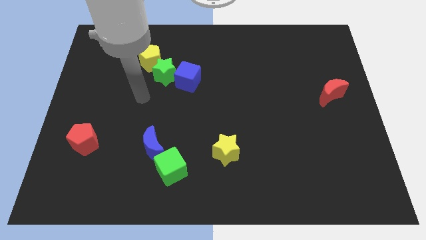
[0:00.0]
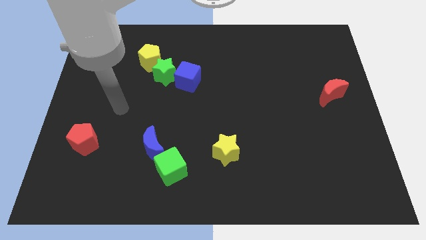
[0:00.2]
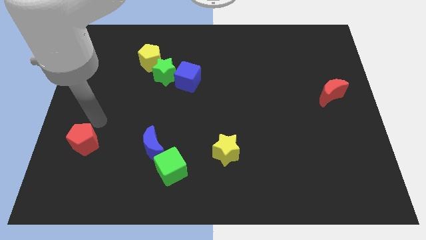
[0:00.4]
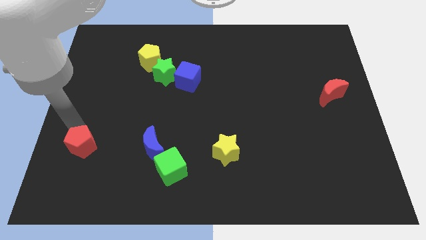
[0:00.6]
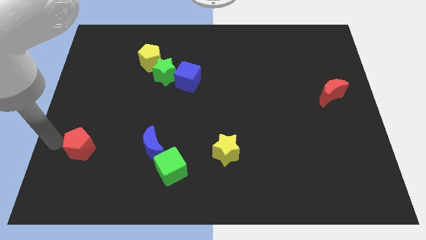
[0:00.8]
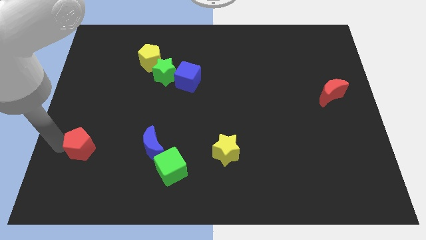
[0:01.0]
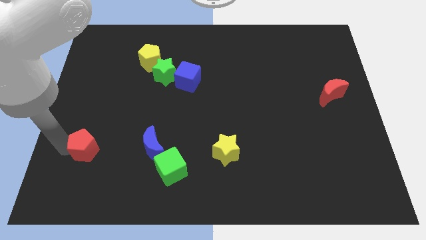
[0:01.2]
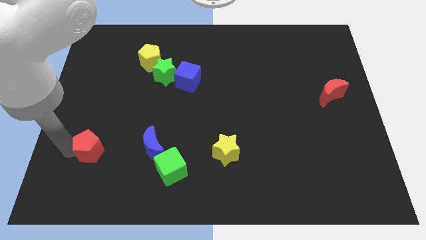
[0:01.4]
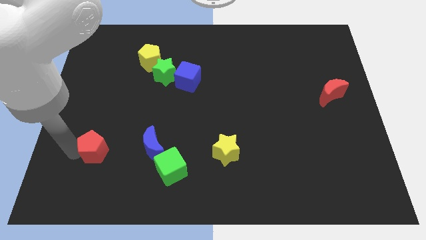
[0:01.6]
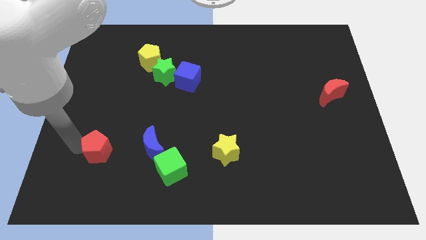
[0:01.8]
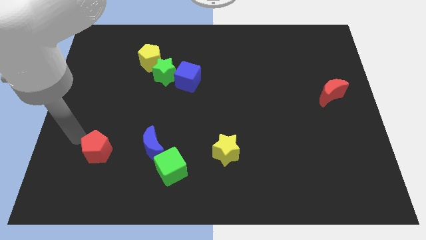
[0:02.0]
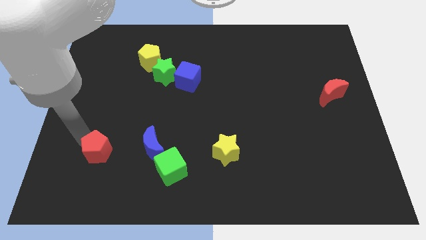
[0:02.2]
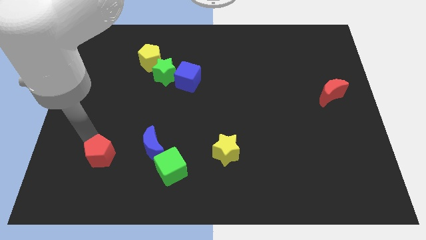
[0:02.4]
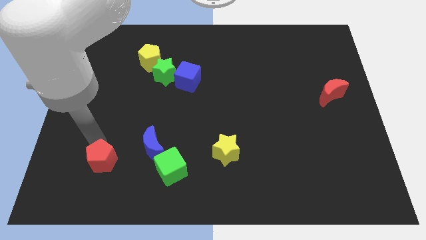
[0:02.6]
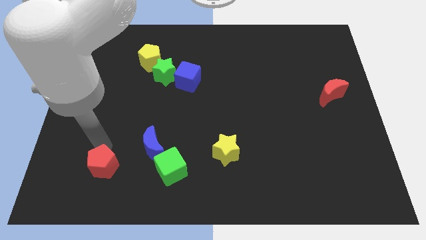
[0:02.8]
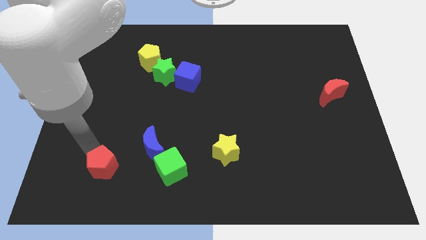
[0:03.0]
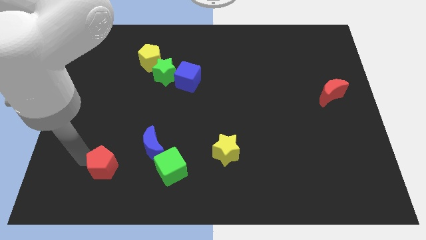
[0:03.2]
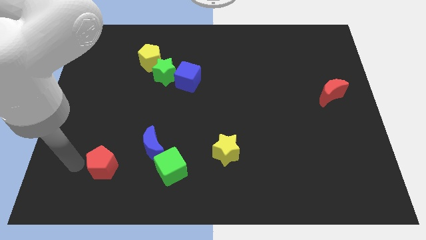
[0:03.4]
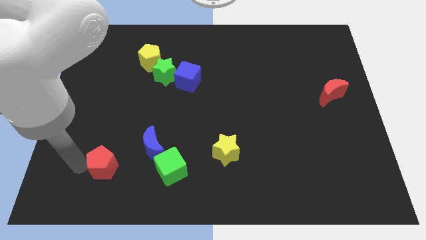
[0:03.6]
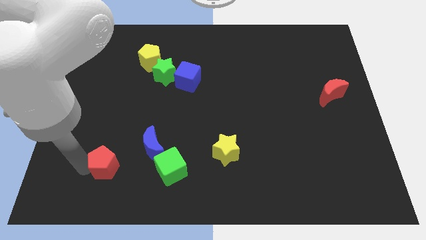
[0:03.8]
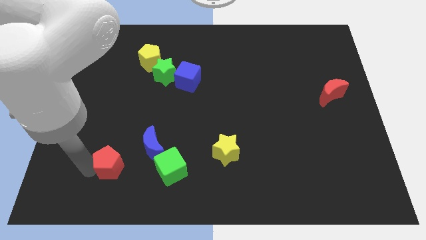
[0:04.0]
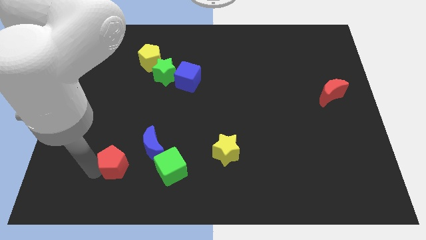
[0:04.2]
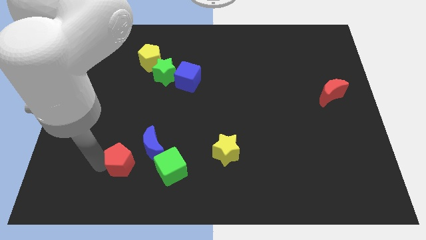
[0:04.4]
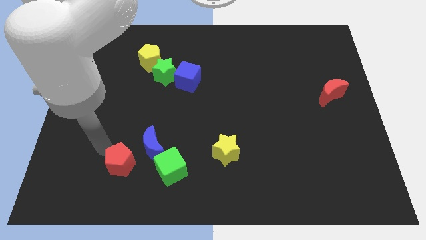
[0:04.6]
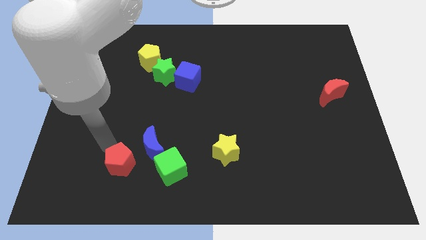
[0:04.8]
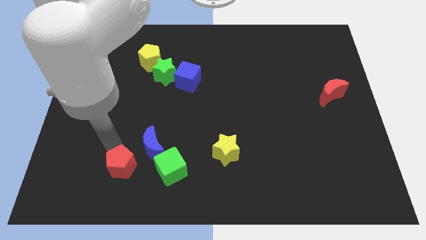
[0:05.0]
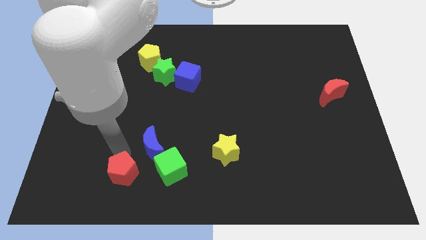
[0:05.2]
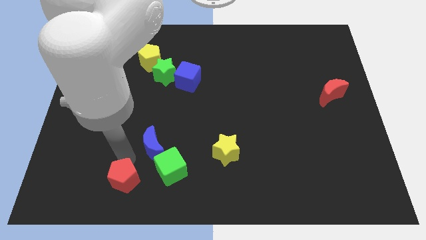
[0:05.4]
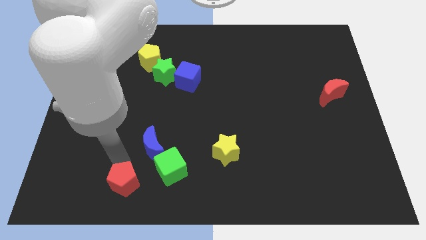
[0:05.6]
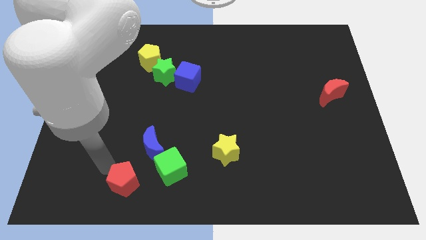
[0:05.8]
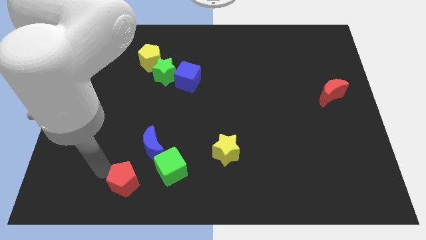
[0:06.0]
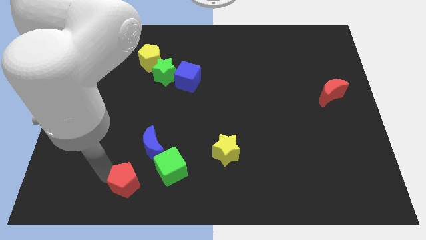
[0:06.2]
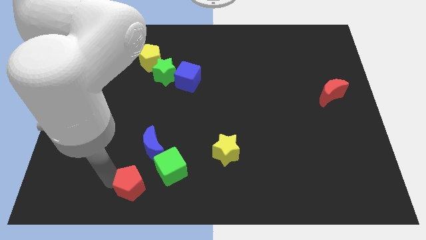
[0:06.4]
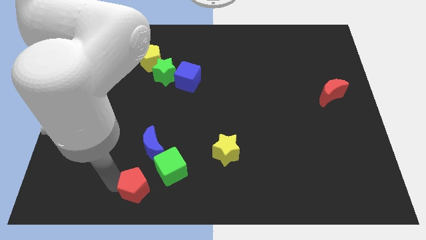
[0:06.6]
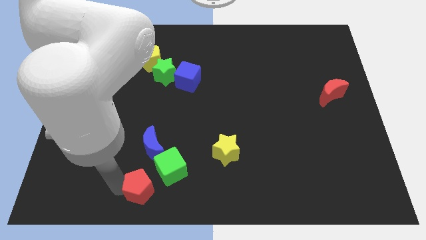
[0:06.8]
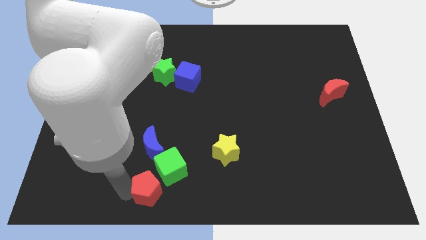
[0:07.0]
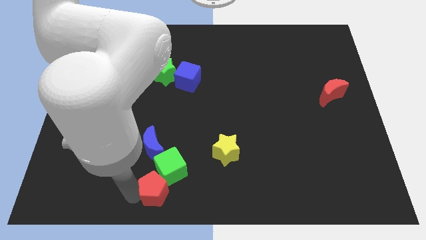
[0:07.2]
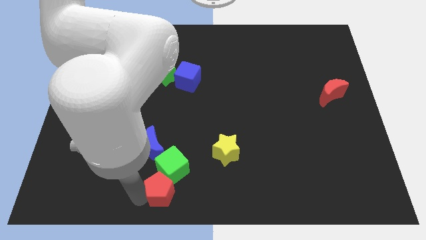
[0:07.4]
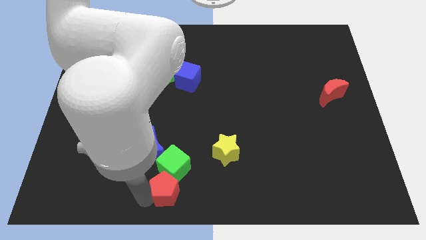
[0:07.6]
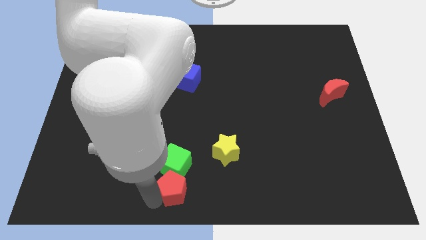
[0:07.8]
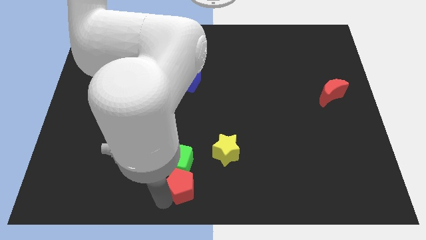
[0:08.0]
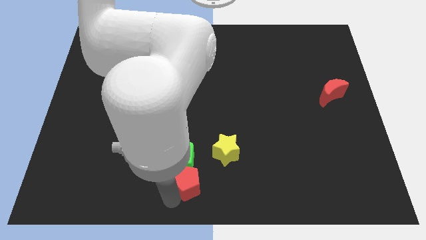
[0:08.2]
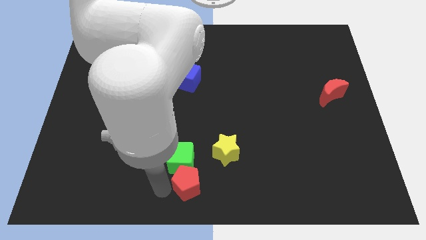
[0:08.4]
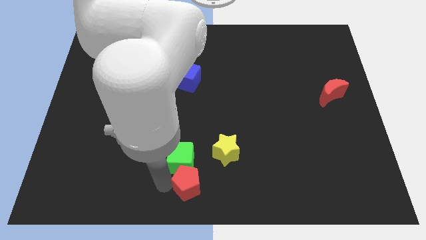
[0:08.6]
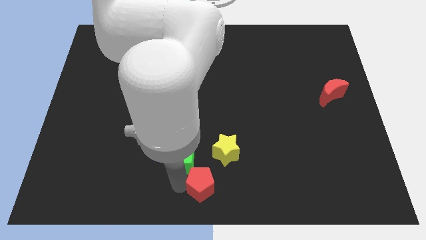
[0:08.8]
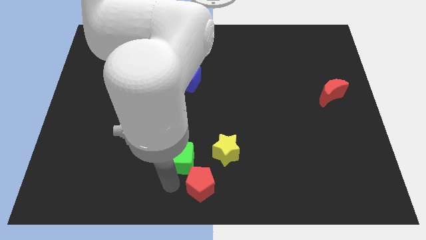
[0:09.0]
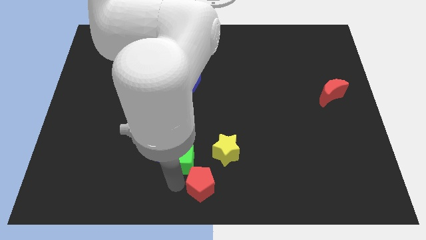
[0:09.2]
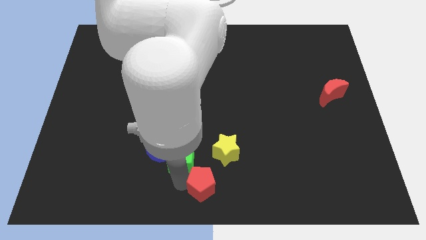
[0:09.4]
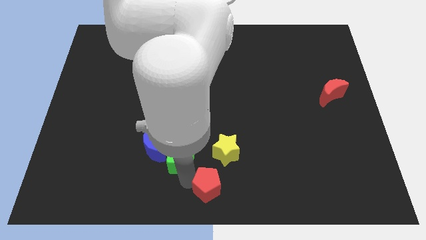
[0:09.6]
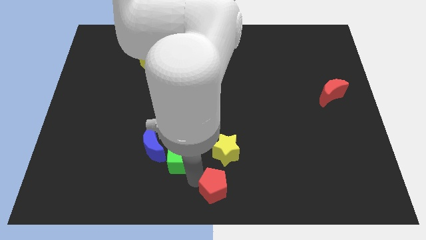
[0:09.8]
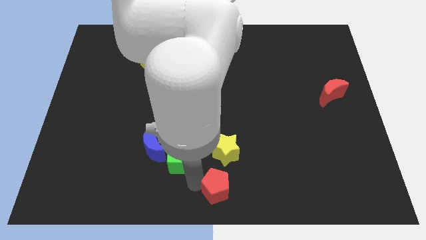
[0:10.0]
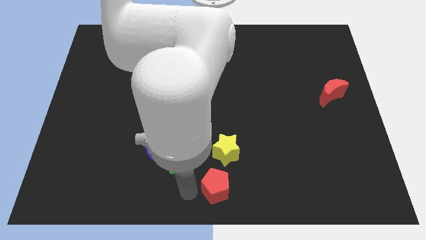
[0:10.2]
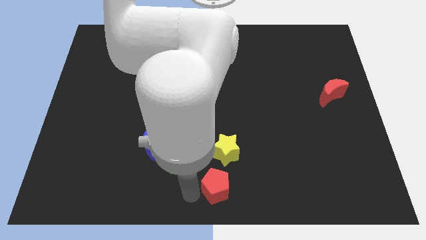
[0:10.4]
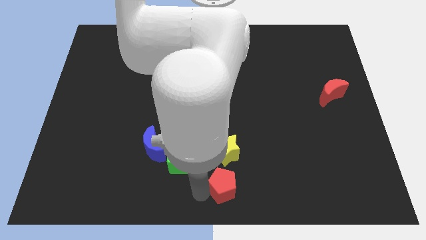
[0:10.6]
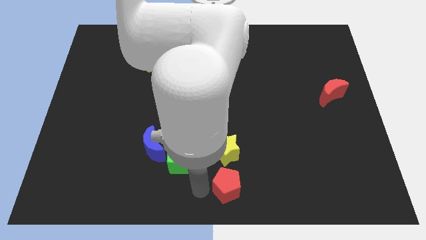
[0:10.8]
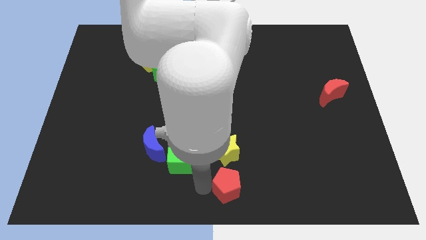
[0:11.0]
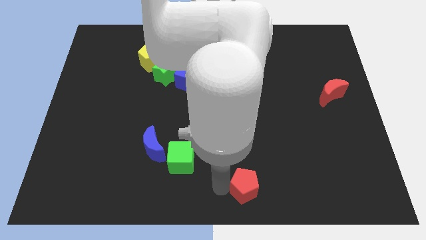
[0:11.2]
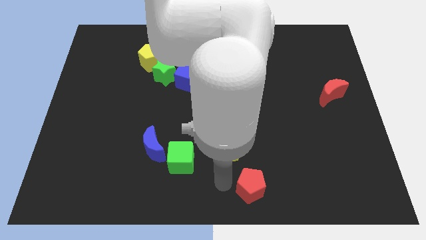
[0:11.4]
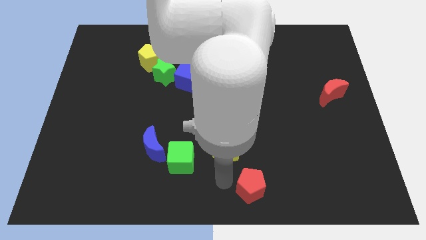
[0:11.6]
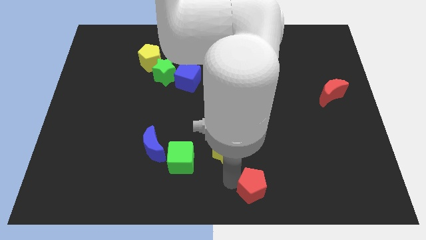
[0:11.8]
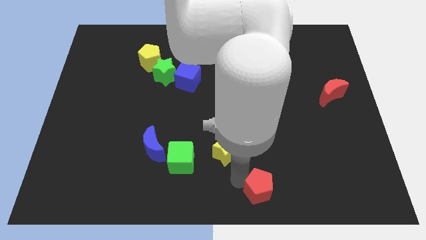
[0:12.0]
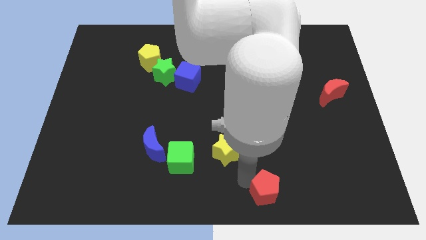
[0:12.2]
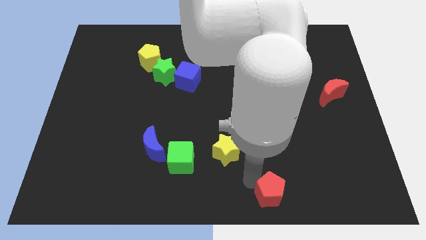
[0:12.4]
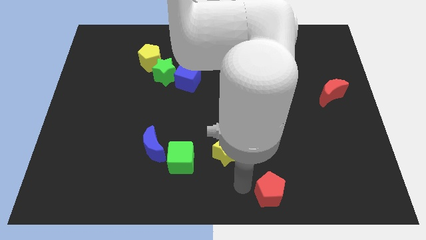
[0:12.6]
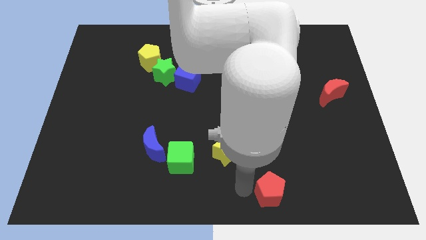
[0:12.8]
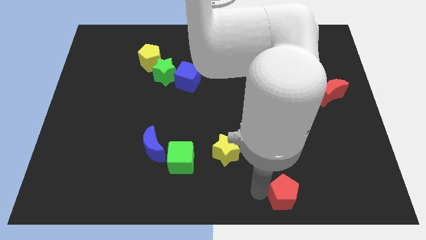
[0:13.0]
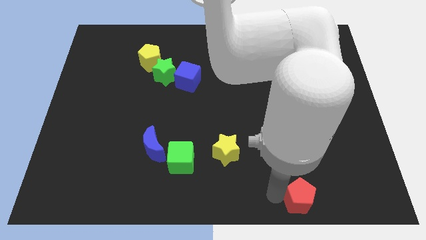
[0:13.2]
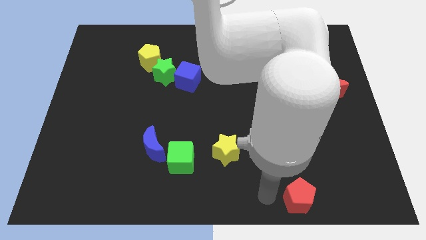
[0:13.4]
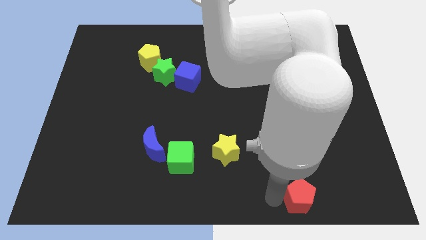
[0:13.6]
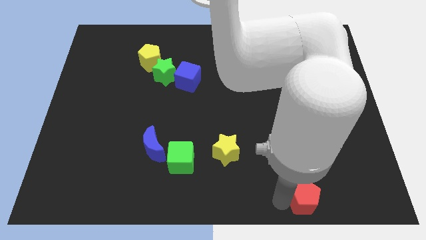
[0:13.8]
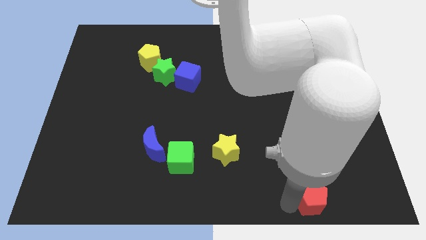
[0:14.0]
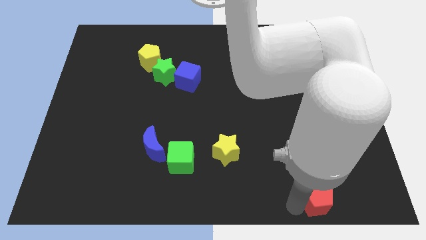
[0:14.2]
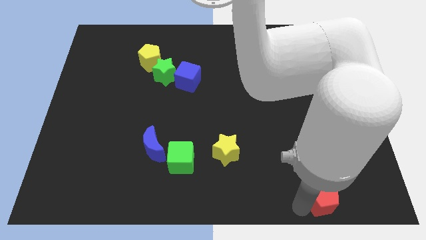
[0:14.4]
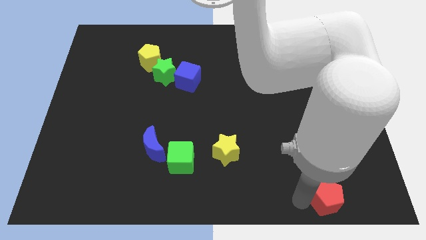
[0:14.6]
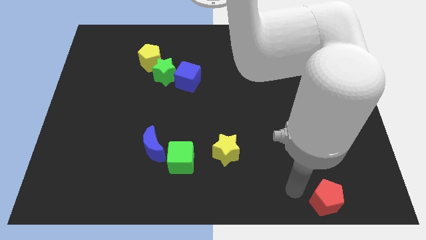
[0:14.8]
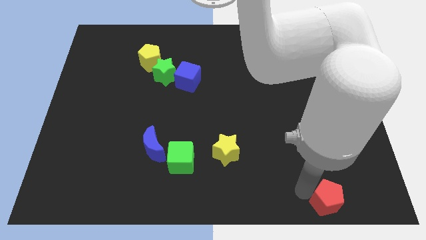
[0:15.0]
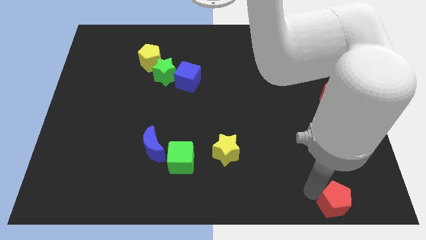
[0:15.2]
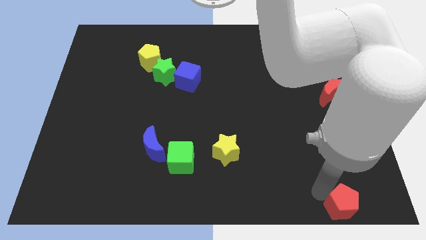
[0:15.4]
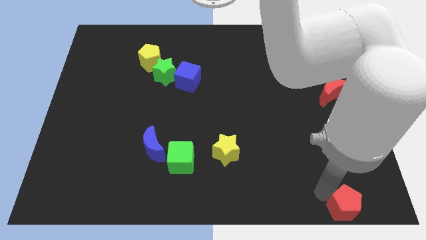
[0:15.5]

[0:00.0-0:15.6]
put the red pentagon to the lower right corner
